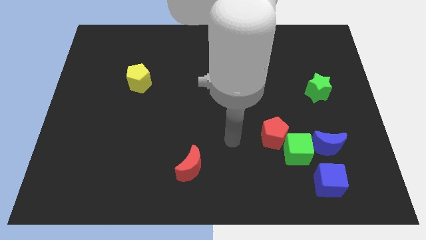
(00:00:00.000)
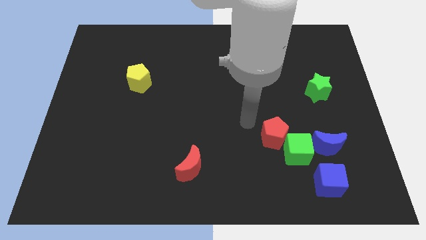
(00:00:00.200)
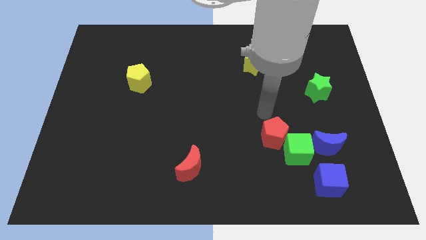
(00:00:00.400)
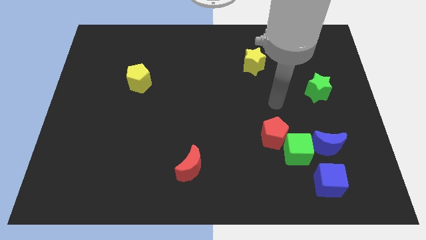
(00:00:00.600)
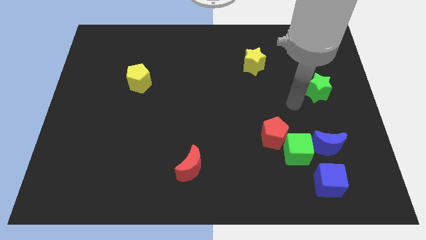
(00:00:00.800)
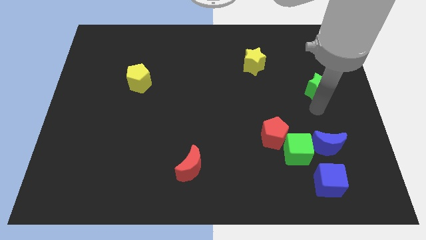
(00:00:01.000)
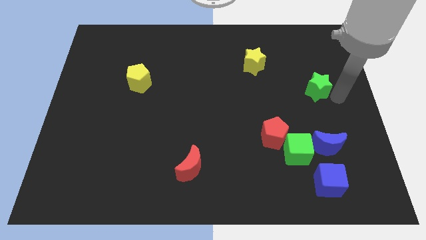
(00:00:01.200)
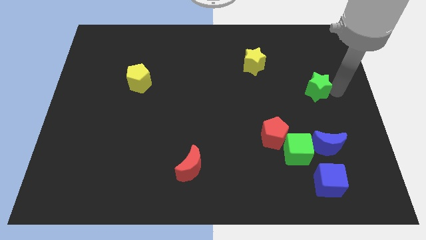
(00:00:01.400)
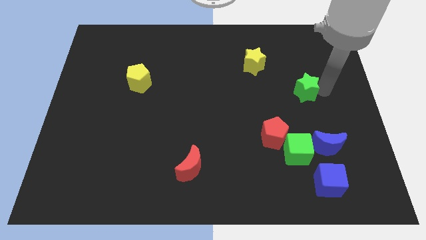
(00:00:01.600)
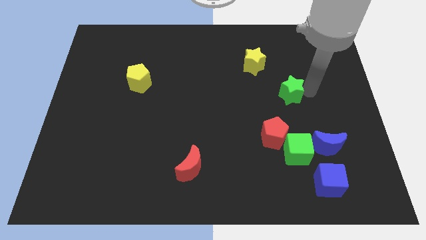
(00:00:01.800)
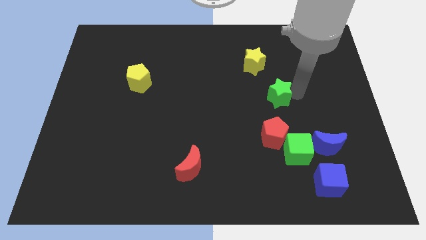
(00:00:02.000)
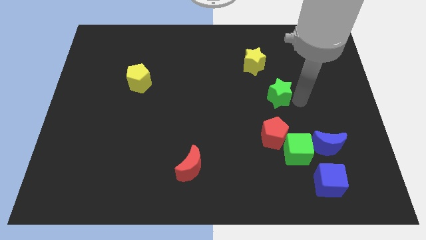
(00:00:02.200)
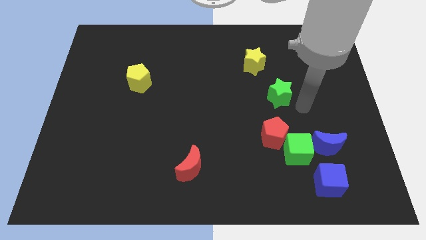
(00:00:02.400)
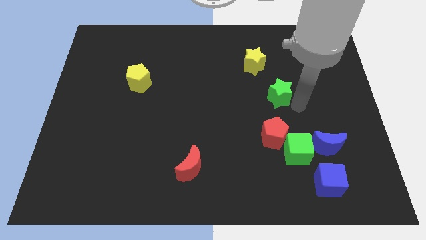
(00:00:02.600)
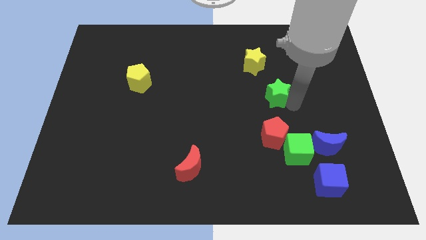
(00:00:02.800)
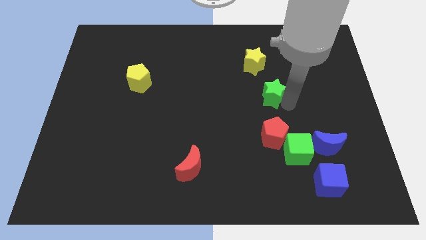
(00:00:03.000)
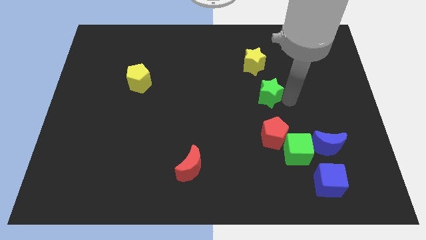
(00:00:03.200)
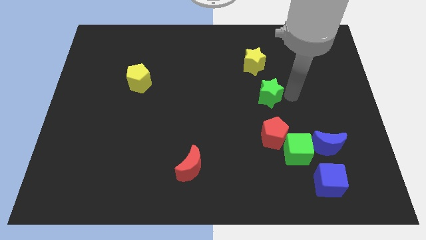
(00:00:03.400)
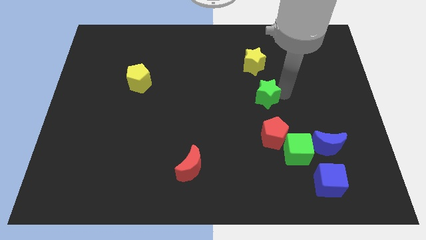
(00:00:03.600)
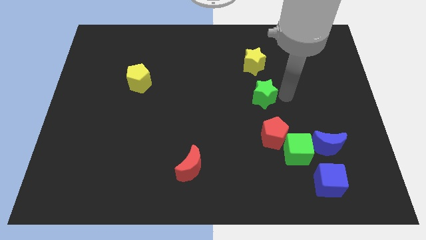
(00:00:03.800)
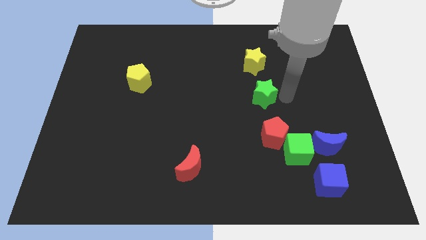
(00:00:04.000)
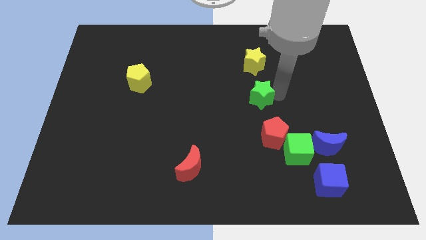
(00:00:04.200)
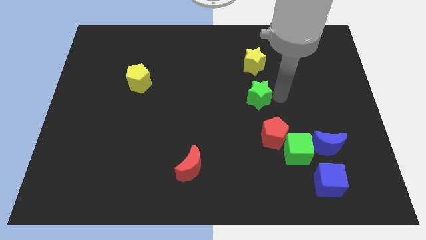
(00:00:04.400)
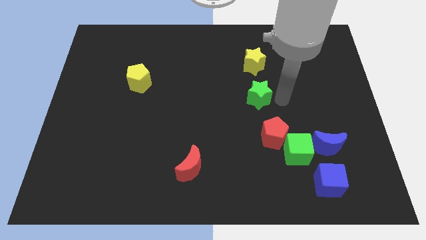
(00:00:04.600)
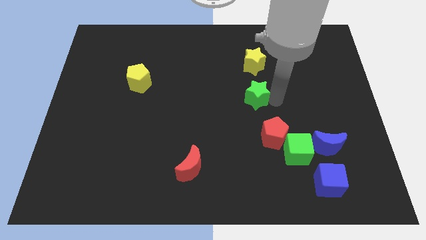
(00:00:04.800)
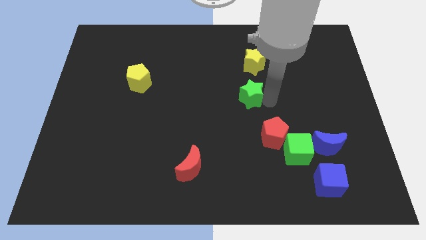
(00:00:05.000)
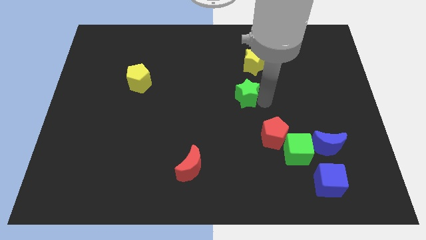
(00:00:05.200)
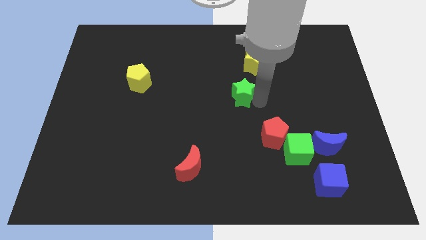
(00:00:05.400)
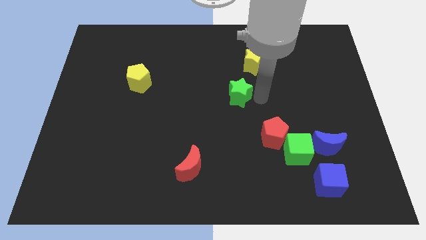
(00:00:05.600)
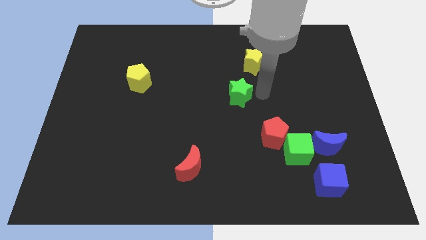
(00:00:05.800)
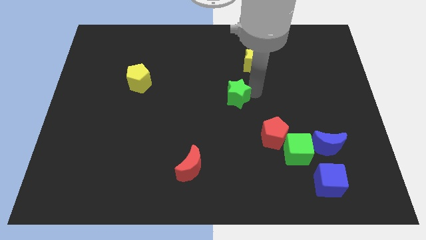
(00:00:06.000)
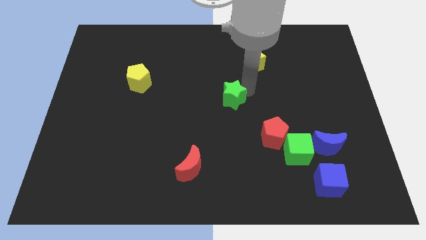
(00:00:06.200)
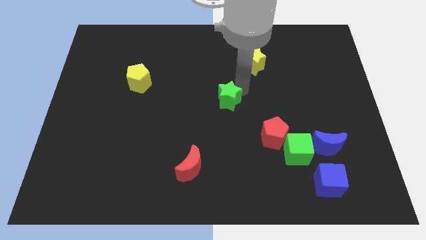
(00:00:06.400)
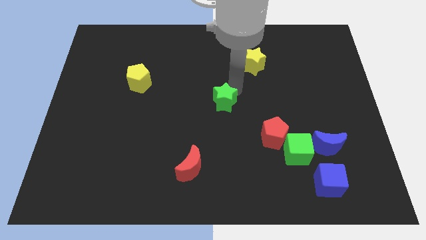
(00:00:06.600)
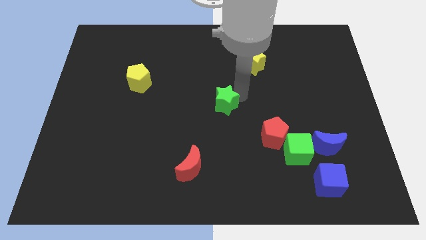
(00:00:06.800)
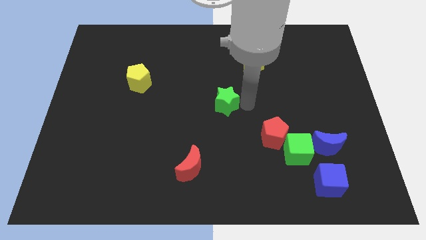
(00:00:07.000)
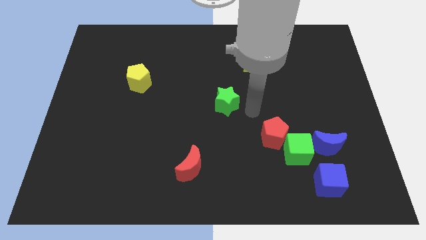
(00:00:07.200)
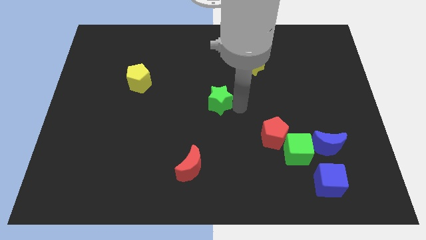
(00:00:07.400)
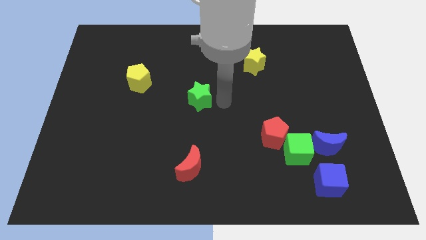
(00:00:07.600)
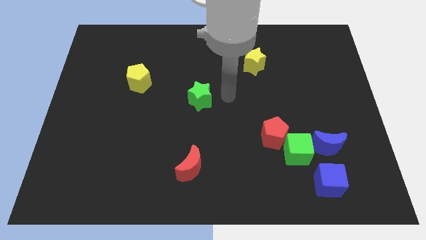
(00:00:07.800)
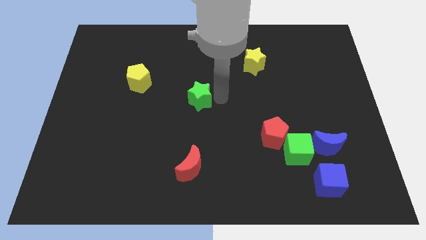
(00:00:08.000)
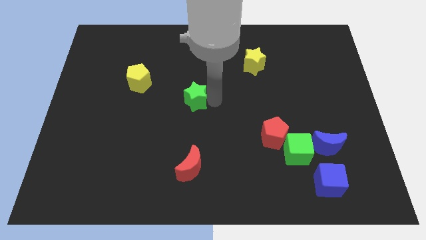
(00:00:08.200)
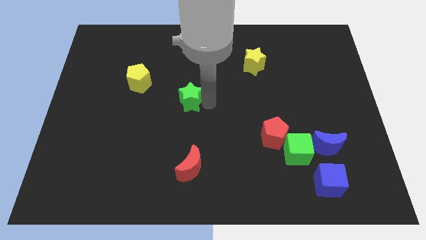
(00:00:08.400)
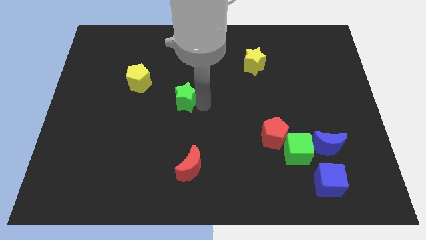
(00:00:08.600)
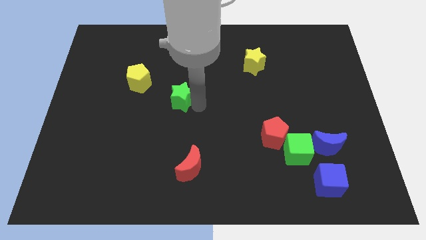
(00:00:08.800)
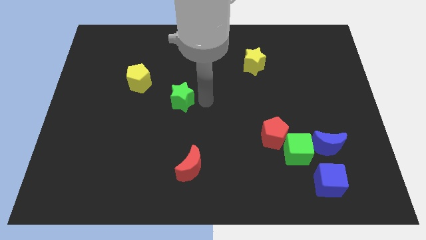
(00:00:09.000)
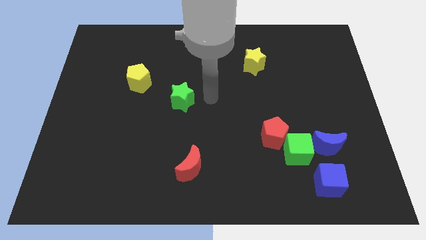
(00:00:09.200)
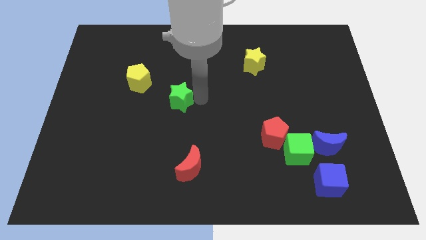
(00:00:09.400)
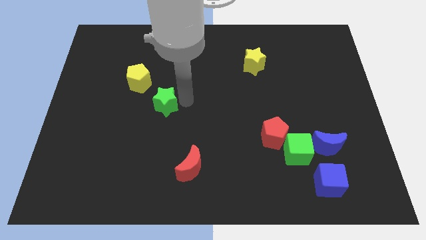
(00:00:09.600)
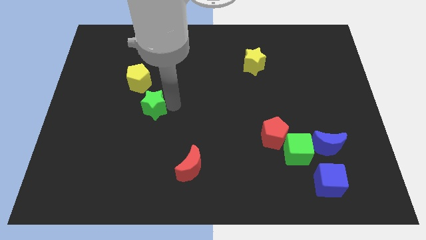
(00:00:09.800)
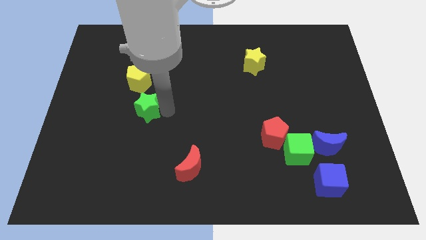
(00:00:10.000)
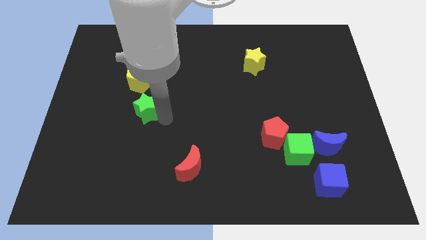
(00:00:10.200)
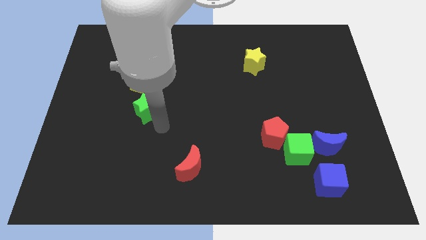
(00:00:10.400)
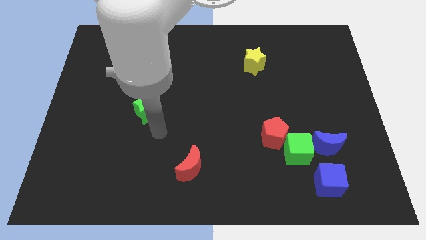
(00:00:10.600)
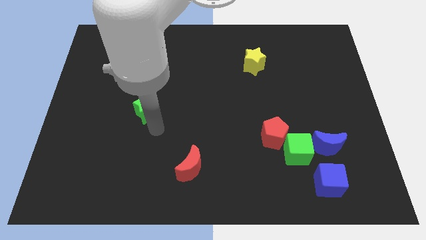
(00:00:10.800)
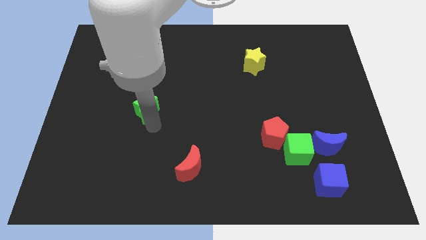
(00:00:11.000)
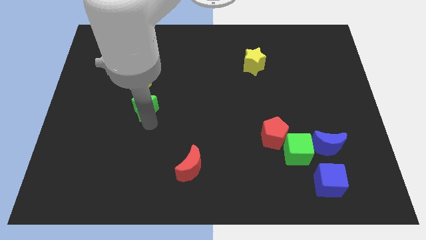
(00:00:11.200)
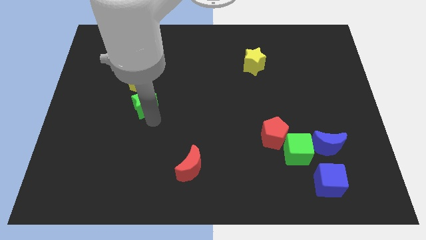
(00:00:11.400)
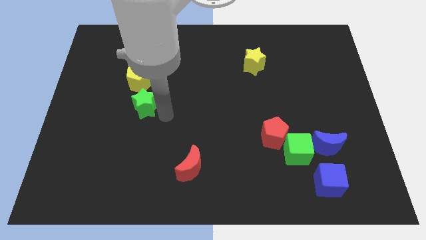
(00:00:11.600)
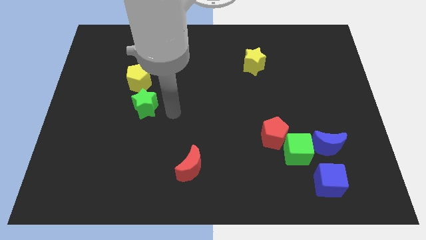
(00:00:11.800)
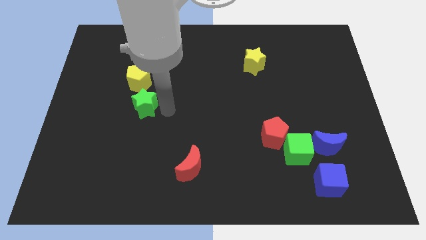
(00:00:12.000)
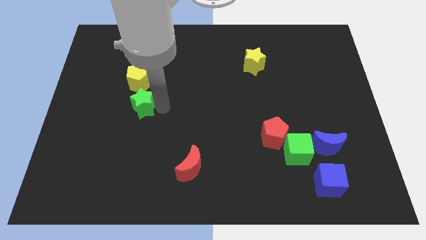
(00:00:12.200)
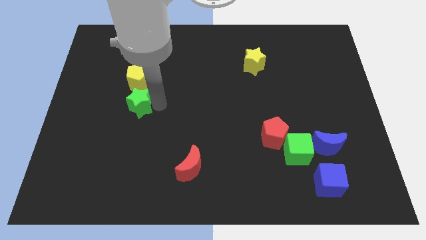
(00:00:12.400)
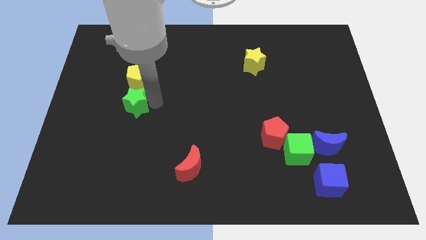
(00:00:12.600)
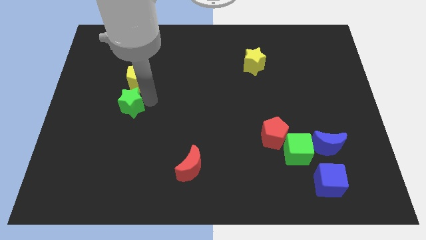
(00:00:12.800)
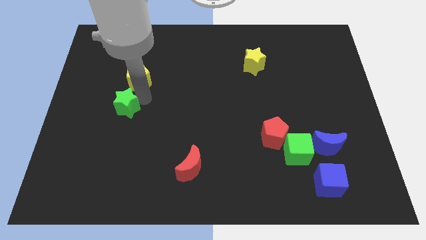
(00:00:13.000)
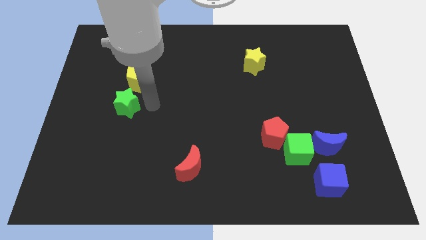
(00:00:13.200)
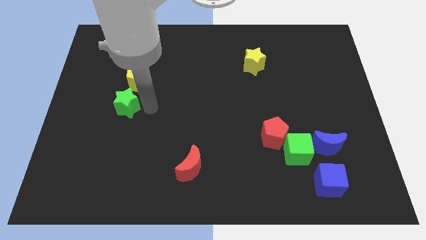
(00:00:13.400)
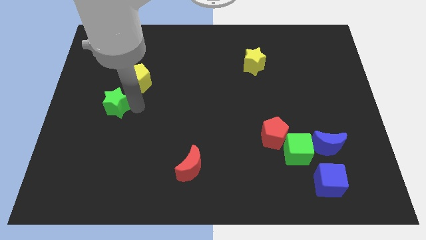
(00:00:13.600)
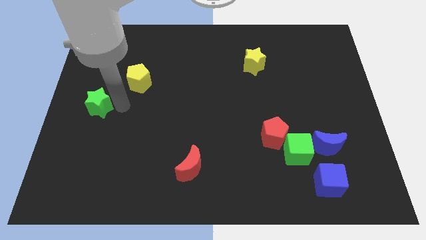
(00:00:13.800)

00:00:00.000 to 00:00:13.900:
put the green star to the left side of the board
